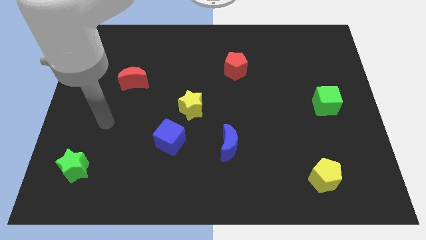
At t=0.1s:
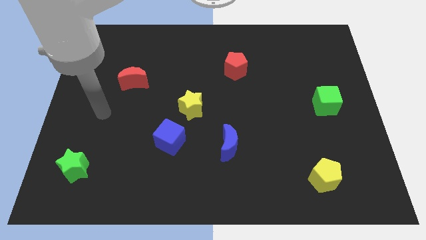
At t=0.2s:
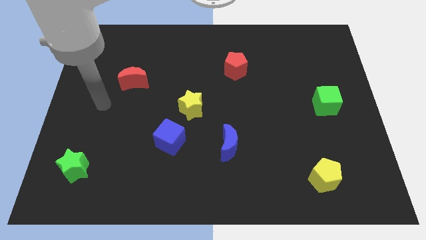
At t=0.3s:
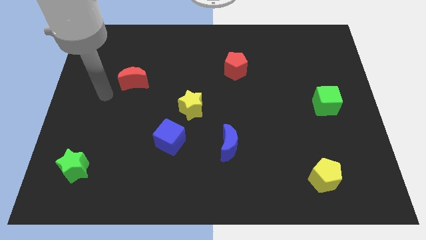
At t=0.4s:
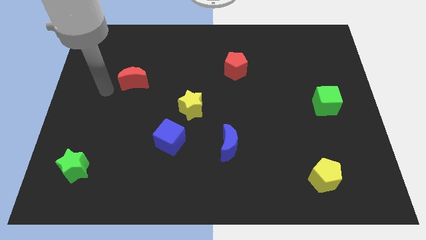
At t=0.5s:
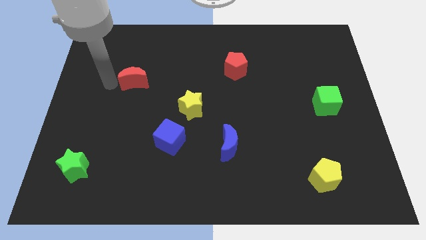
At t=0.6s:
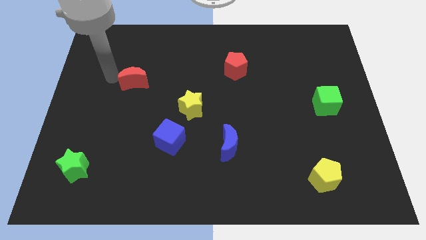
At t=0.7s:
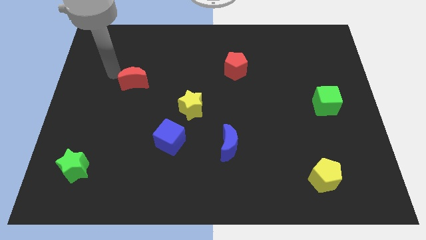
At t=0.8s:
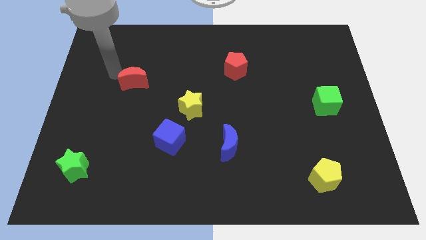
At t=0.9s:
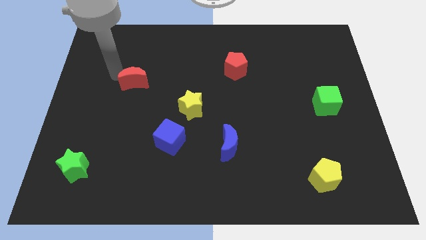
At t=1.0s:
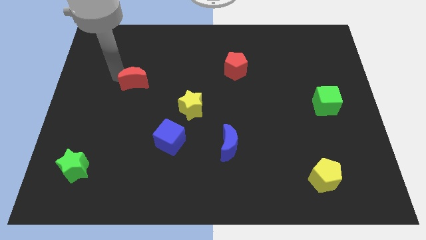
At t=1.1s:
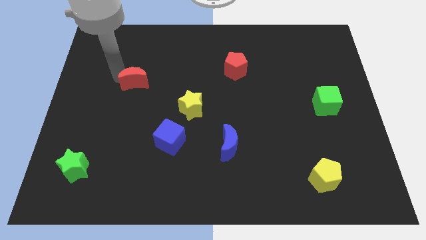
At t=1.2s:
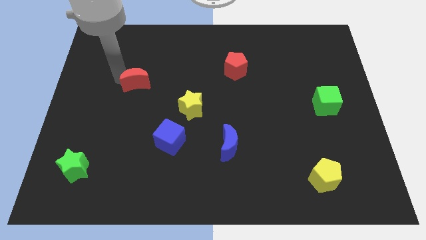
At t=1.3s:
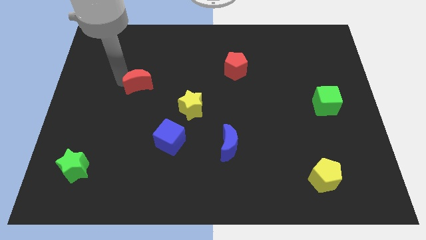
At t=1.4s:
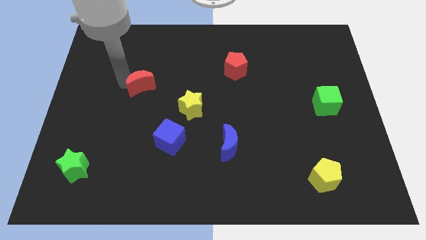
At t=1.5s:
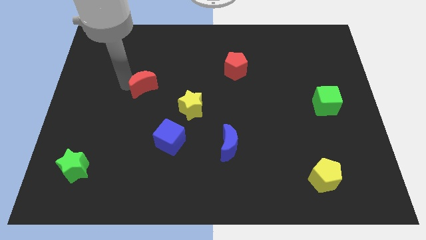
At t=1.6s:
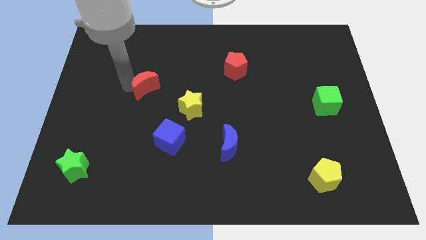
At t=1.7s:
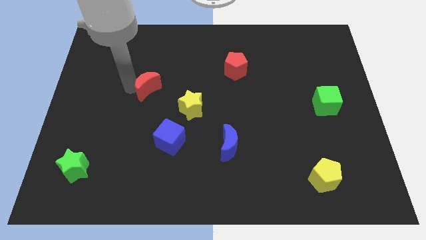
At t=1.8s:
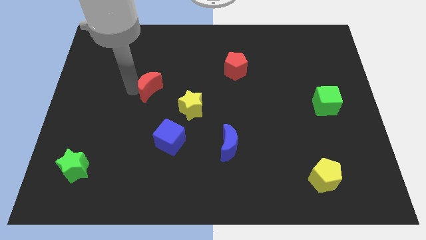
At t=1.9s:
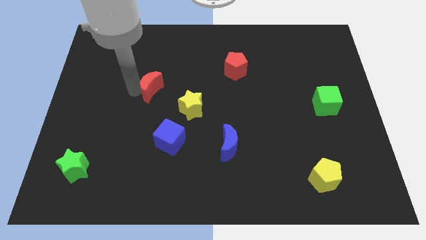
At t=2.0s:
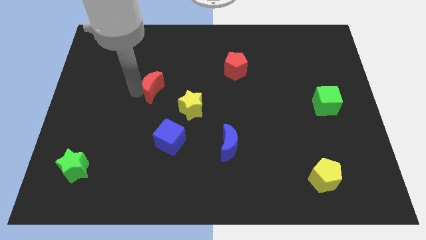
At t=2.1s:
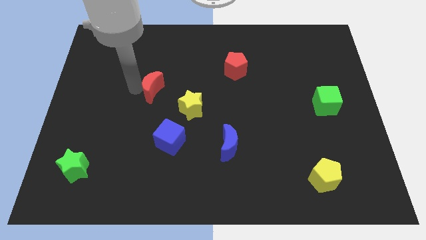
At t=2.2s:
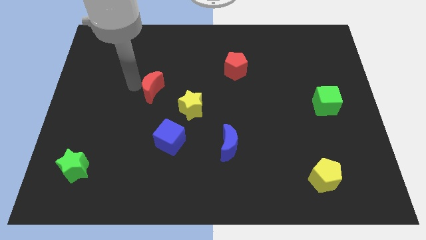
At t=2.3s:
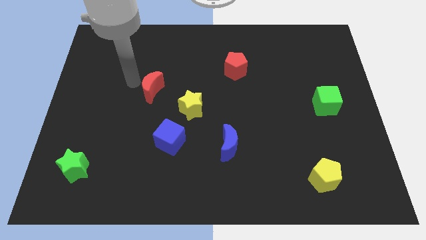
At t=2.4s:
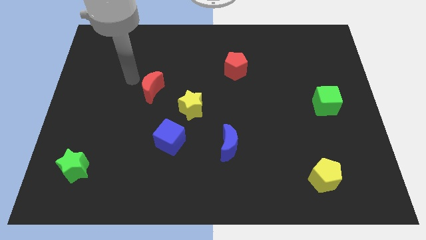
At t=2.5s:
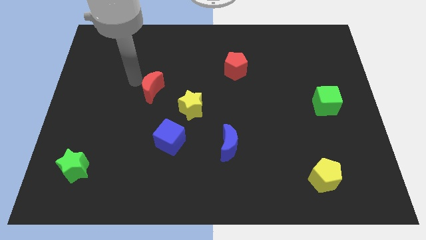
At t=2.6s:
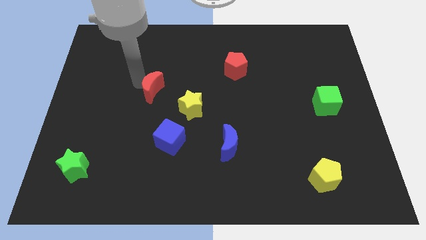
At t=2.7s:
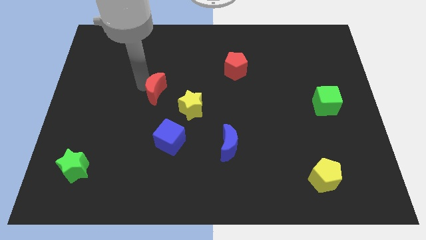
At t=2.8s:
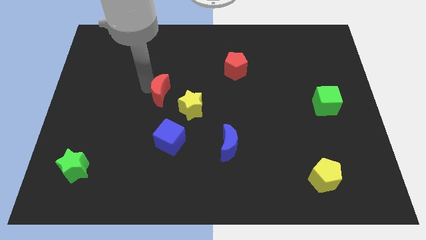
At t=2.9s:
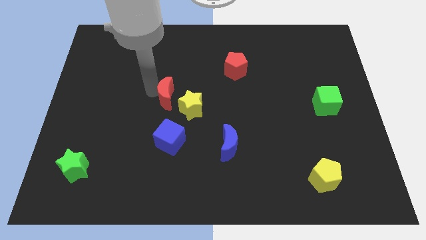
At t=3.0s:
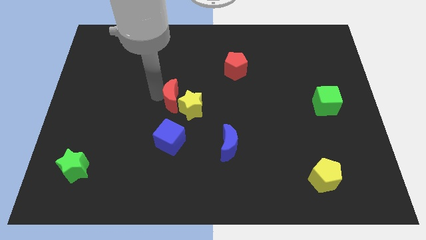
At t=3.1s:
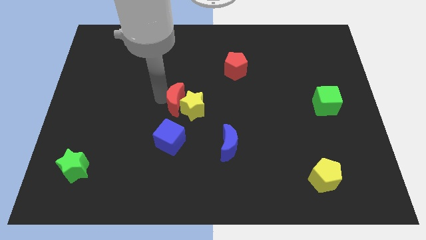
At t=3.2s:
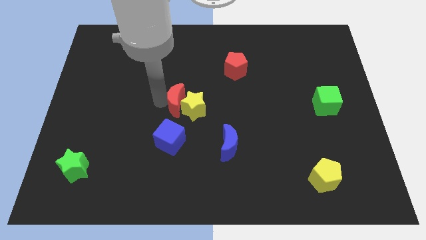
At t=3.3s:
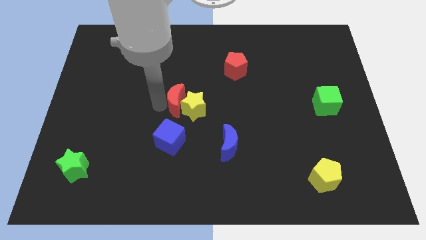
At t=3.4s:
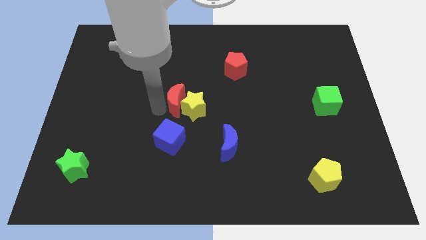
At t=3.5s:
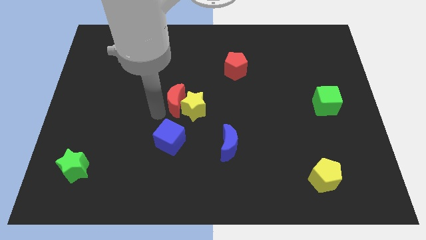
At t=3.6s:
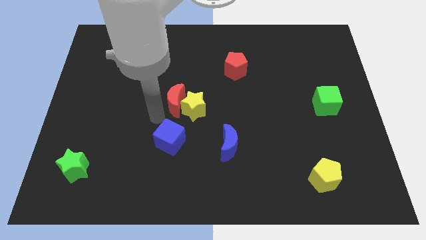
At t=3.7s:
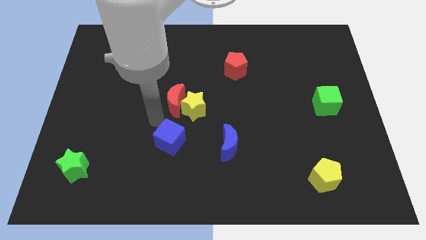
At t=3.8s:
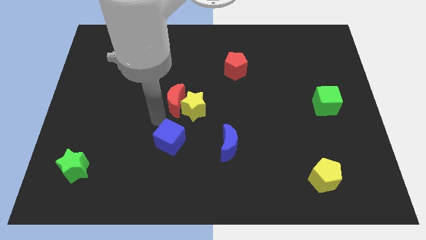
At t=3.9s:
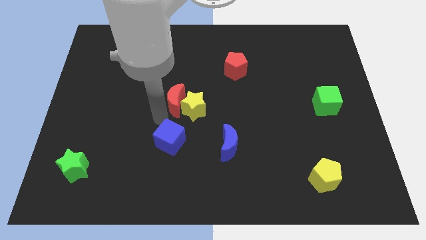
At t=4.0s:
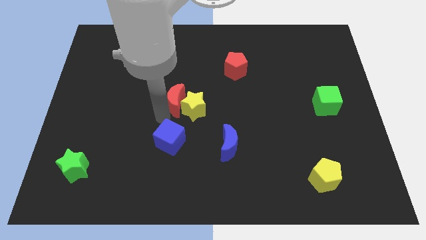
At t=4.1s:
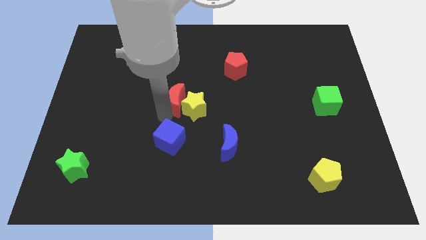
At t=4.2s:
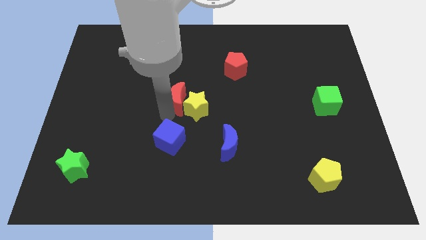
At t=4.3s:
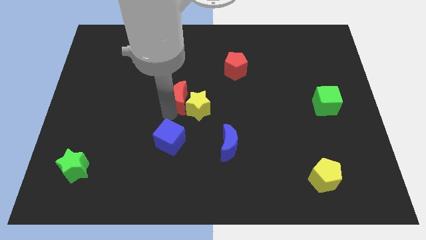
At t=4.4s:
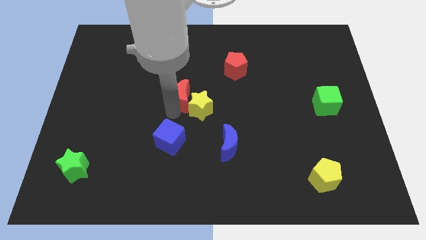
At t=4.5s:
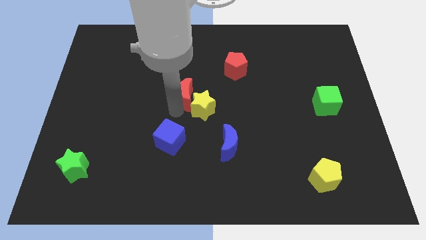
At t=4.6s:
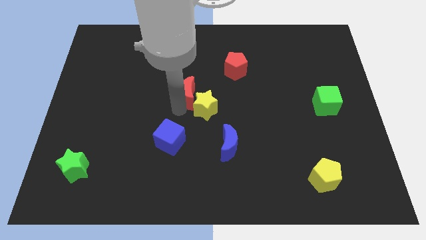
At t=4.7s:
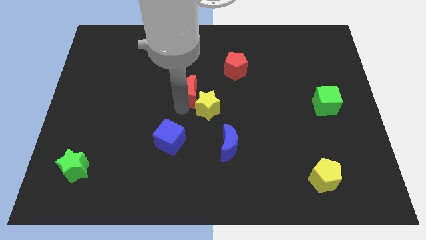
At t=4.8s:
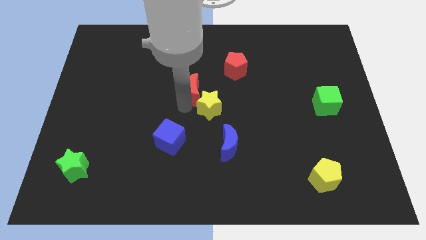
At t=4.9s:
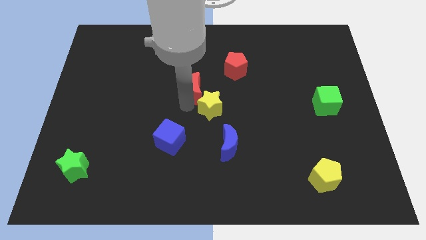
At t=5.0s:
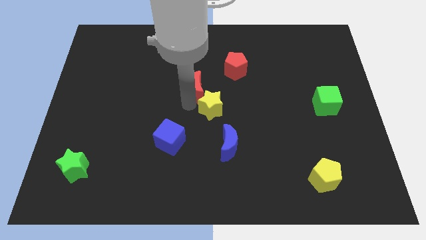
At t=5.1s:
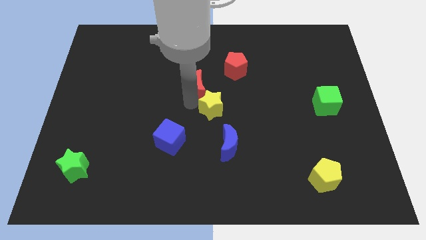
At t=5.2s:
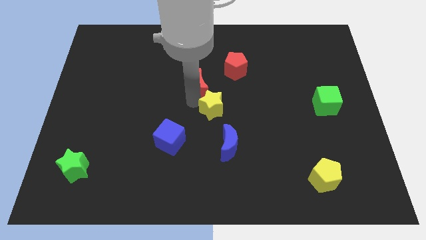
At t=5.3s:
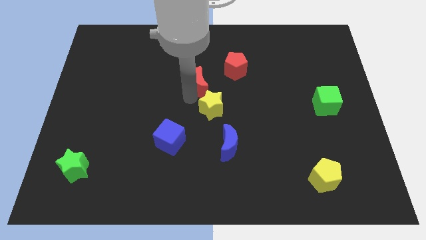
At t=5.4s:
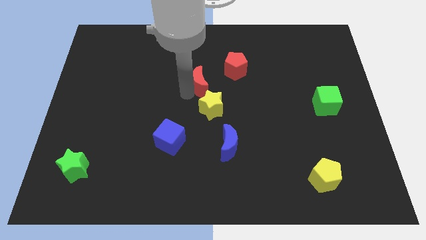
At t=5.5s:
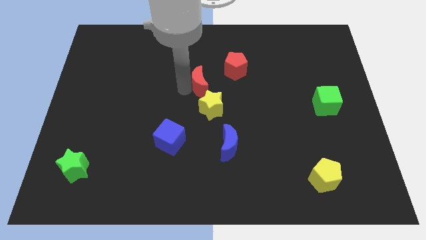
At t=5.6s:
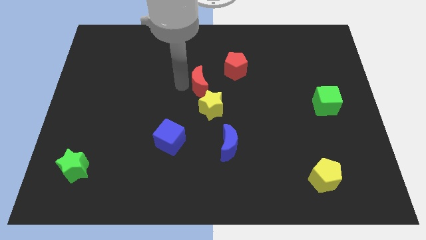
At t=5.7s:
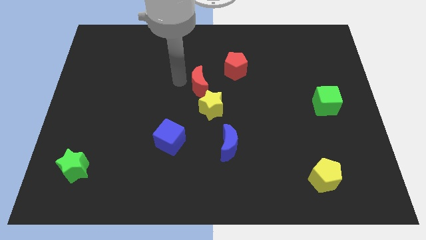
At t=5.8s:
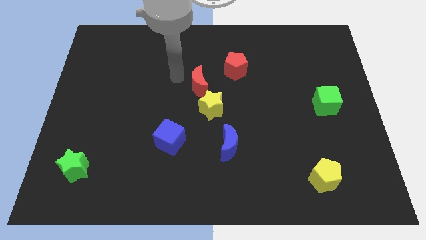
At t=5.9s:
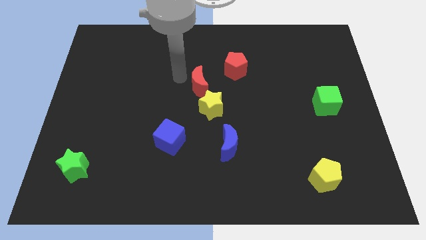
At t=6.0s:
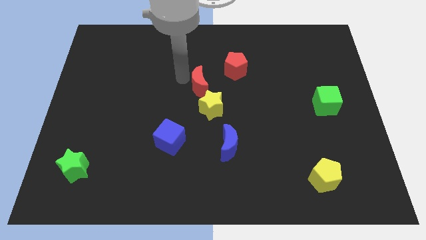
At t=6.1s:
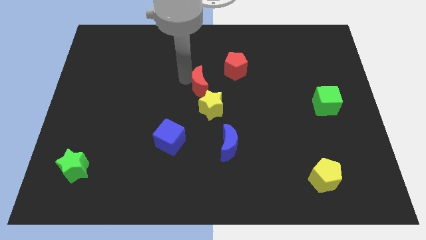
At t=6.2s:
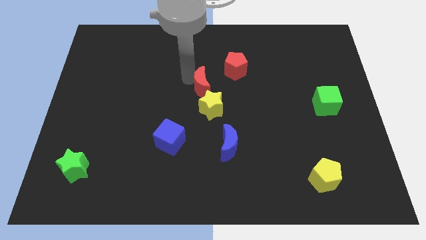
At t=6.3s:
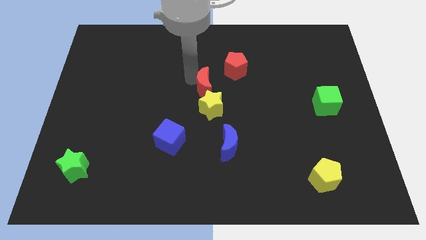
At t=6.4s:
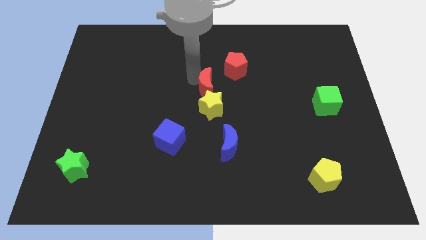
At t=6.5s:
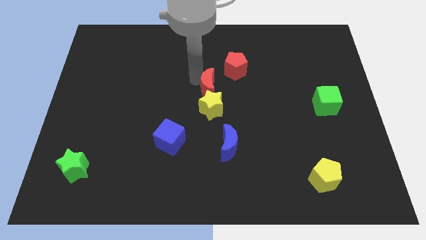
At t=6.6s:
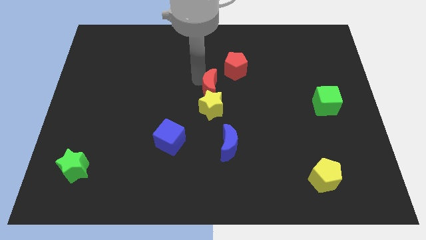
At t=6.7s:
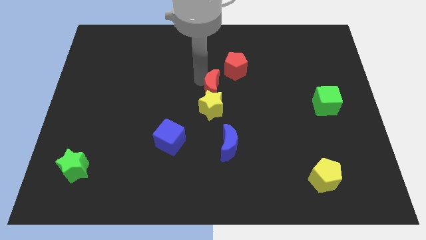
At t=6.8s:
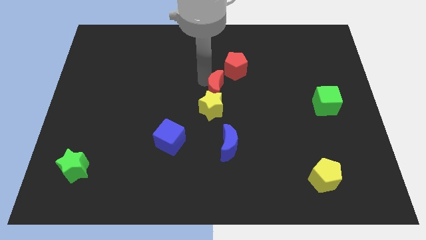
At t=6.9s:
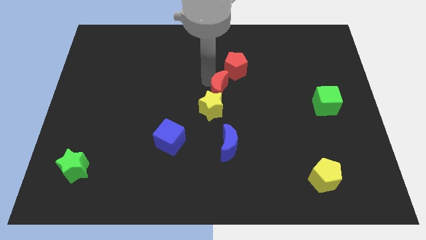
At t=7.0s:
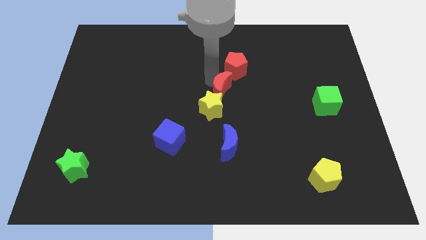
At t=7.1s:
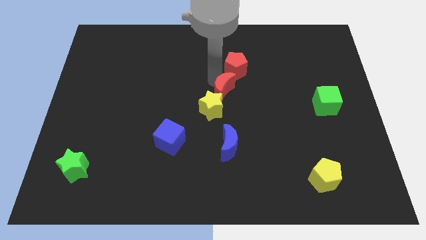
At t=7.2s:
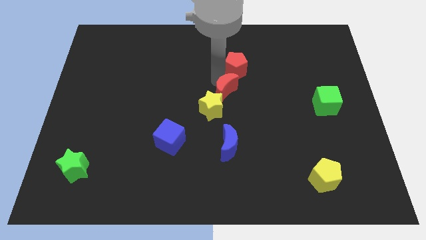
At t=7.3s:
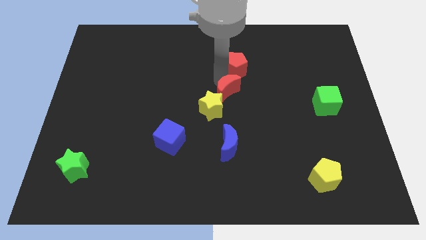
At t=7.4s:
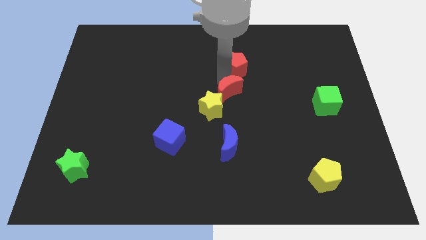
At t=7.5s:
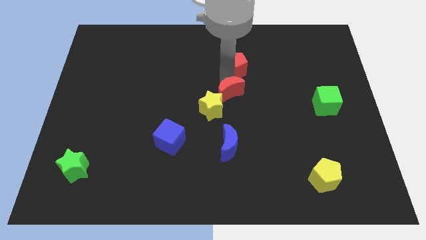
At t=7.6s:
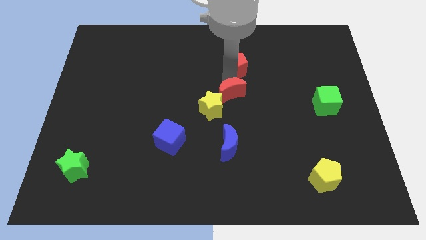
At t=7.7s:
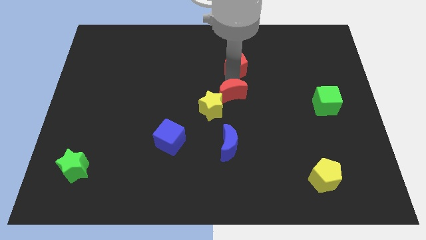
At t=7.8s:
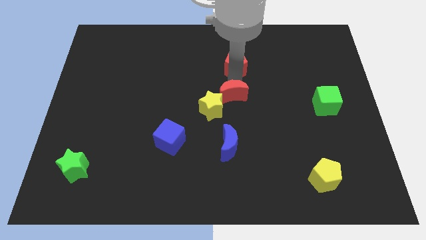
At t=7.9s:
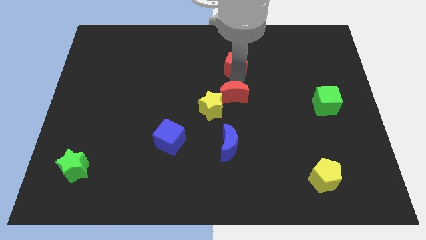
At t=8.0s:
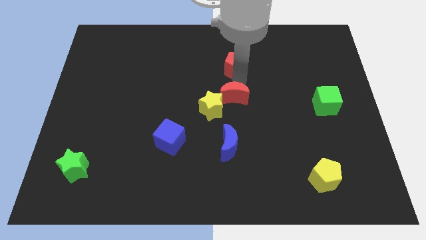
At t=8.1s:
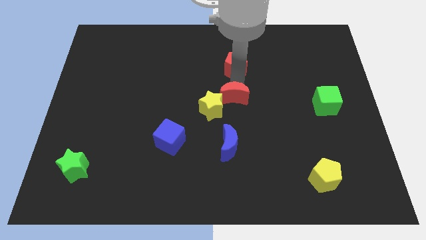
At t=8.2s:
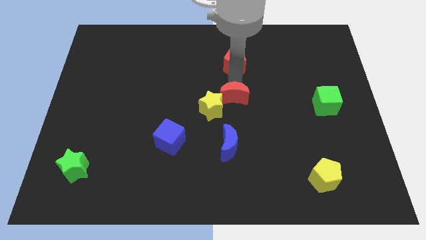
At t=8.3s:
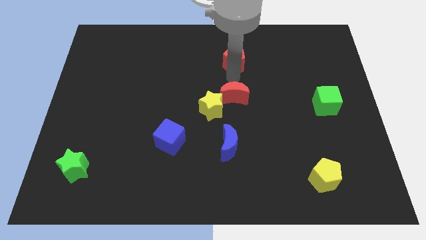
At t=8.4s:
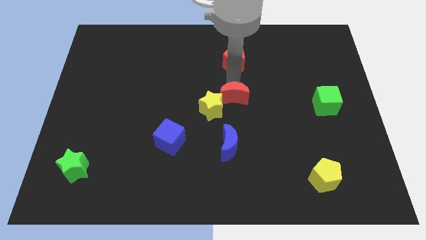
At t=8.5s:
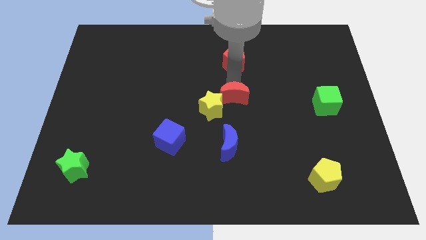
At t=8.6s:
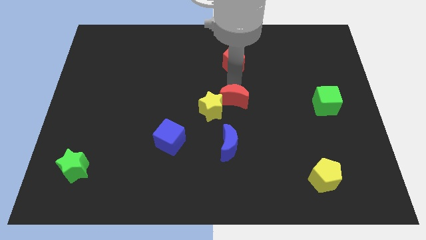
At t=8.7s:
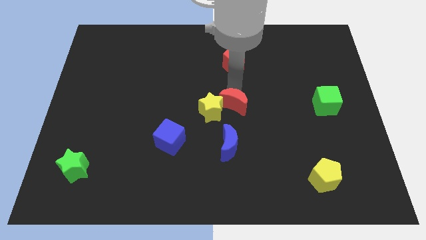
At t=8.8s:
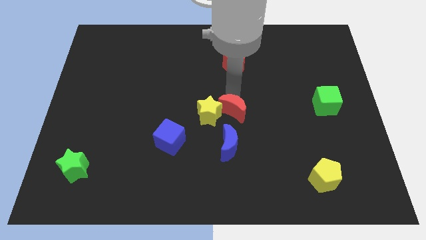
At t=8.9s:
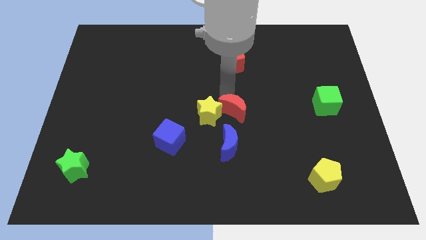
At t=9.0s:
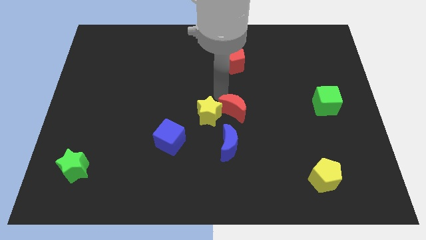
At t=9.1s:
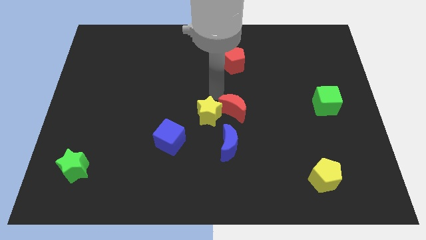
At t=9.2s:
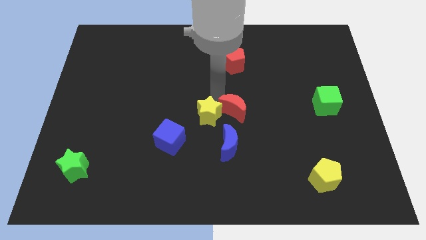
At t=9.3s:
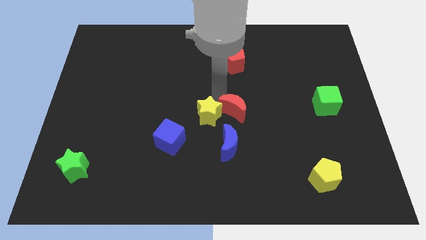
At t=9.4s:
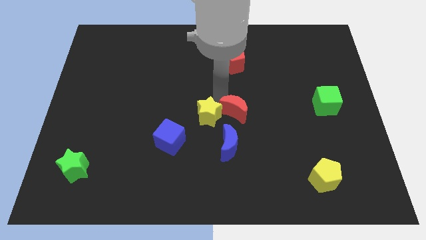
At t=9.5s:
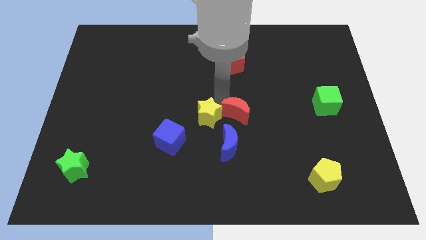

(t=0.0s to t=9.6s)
push the red moon diagonally up and to the right of the blue moon
